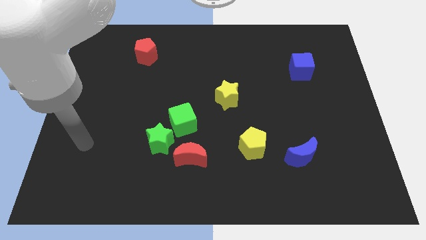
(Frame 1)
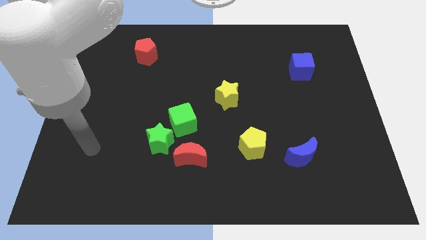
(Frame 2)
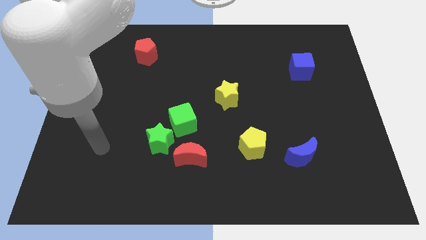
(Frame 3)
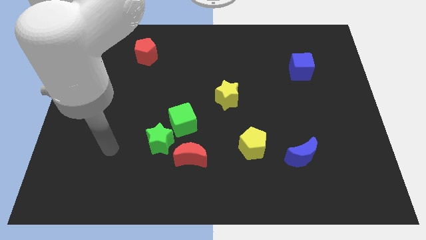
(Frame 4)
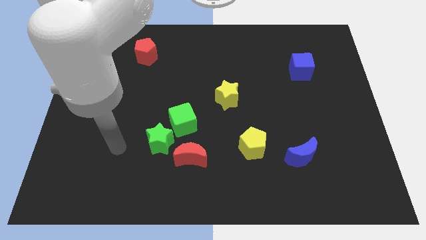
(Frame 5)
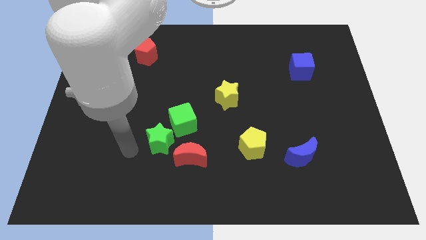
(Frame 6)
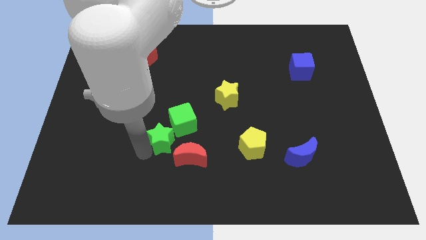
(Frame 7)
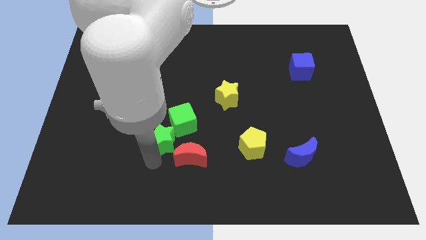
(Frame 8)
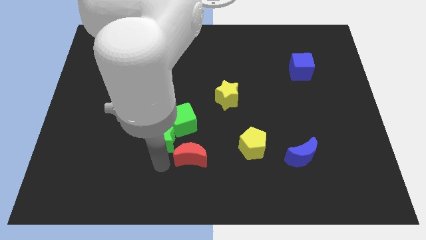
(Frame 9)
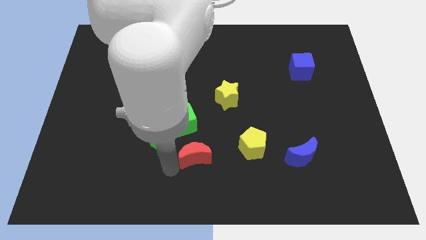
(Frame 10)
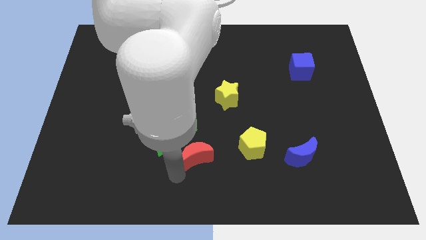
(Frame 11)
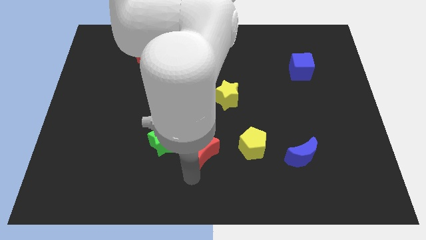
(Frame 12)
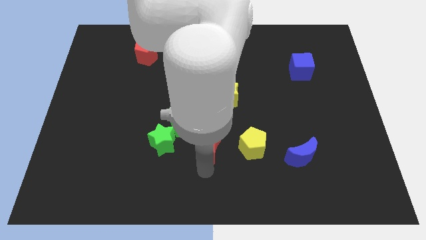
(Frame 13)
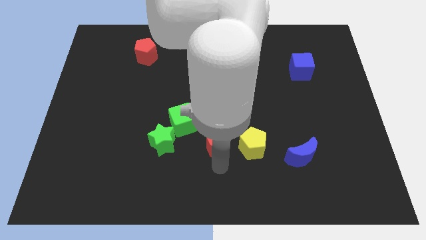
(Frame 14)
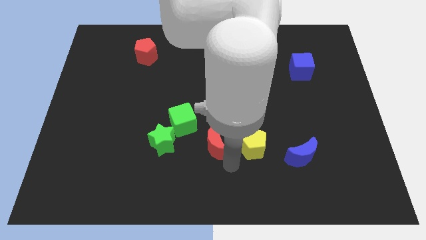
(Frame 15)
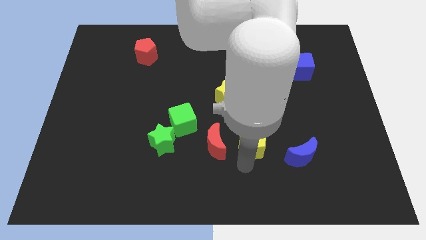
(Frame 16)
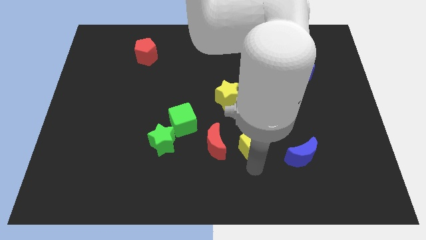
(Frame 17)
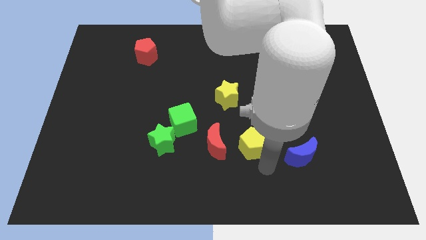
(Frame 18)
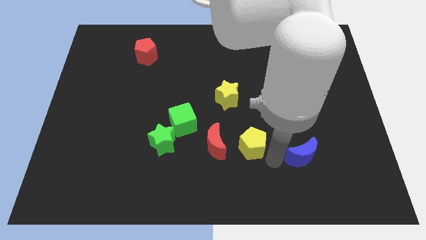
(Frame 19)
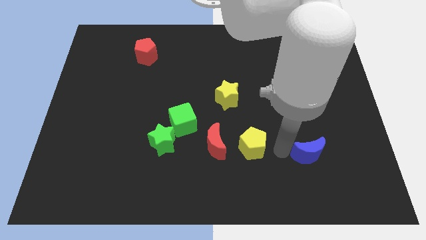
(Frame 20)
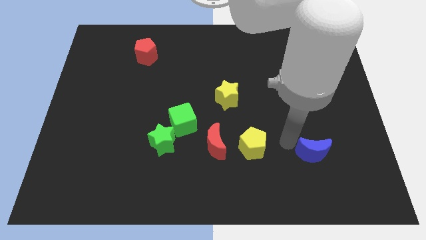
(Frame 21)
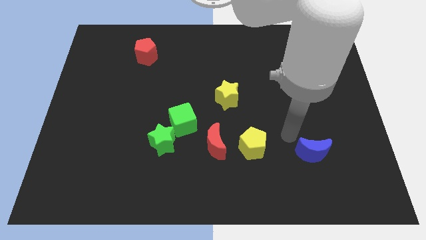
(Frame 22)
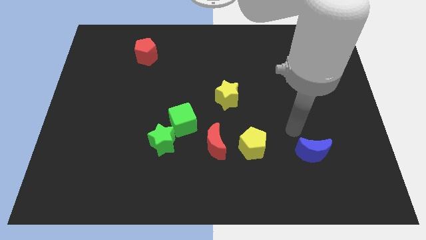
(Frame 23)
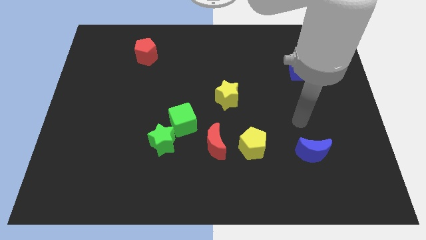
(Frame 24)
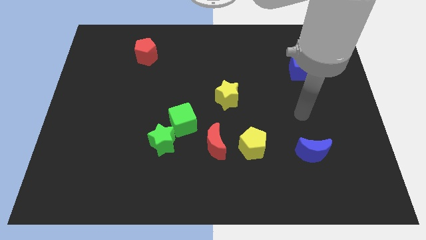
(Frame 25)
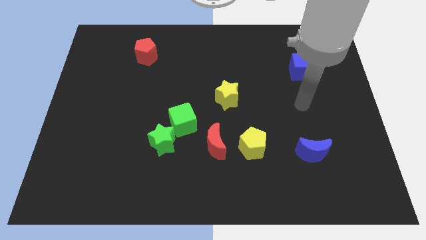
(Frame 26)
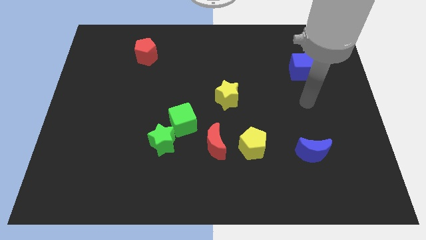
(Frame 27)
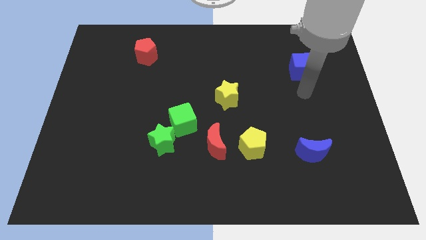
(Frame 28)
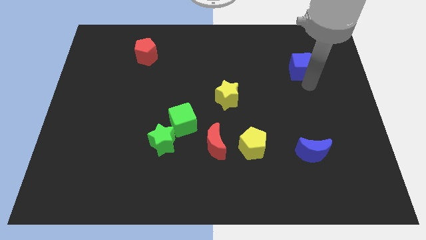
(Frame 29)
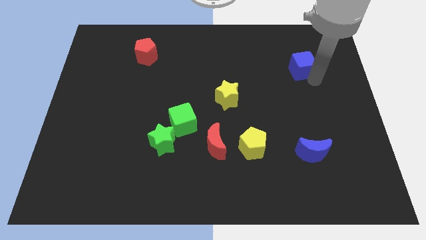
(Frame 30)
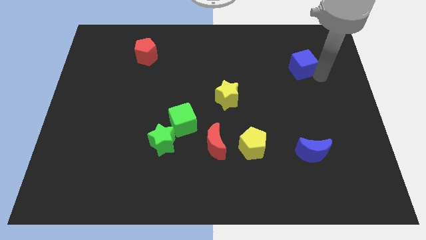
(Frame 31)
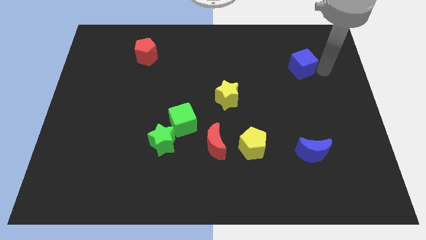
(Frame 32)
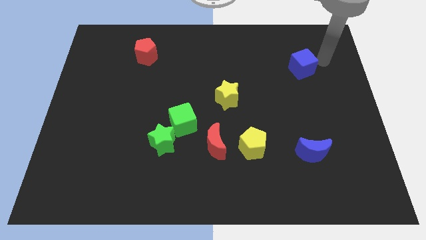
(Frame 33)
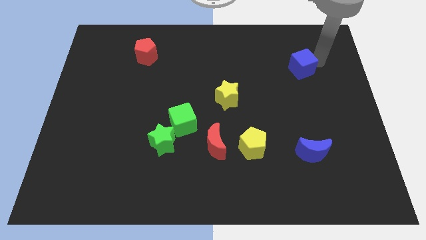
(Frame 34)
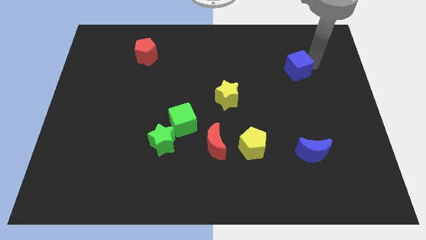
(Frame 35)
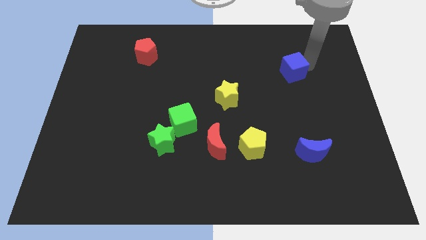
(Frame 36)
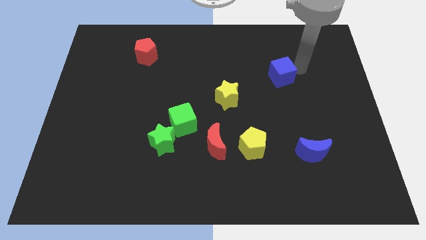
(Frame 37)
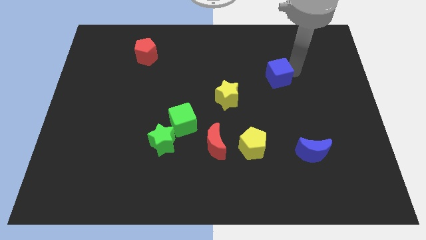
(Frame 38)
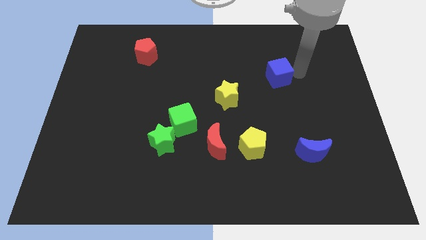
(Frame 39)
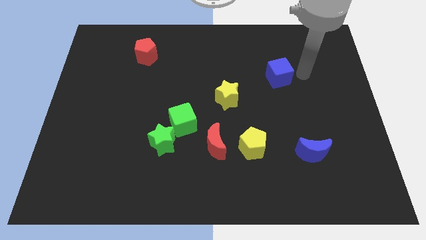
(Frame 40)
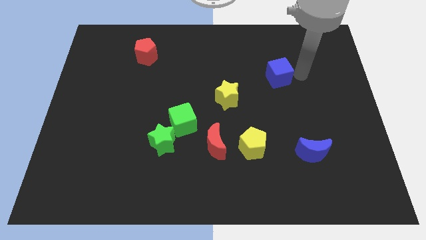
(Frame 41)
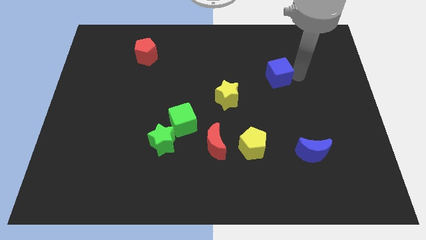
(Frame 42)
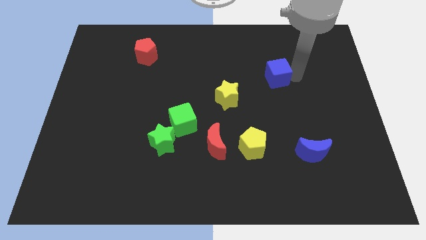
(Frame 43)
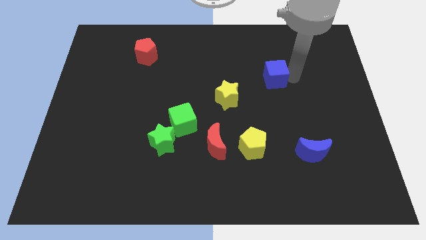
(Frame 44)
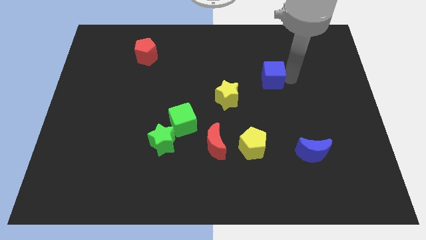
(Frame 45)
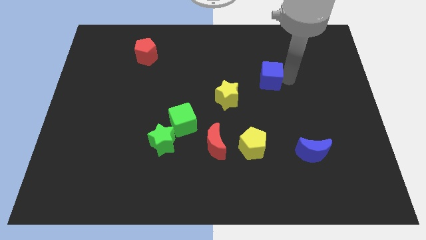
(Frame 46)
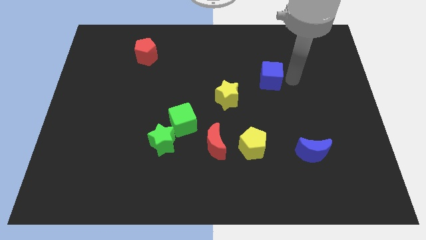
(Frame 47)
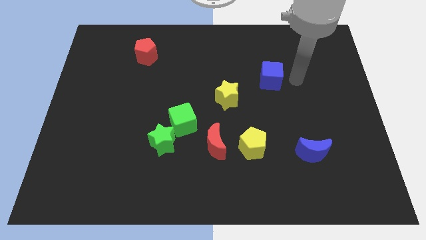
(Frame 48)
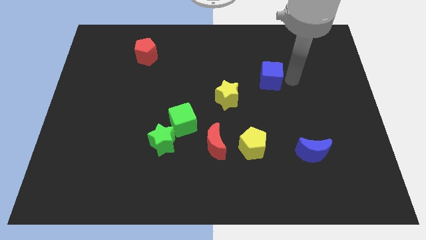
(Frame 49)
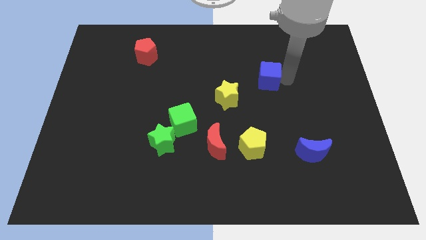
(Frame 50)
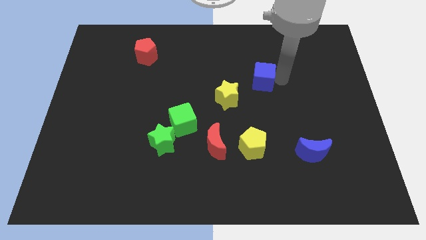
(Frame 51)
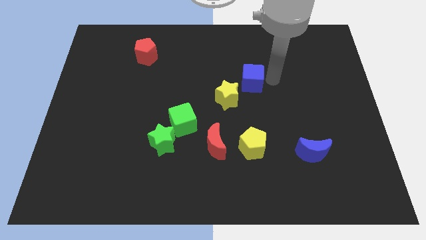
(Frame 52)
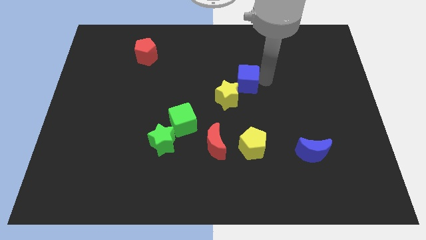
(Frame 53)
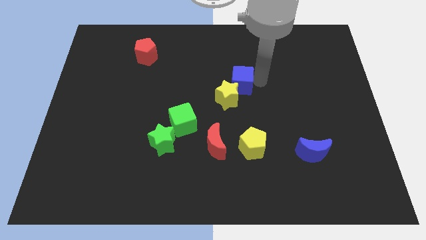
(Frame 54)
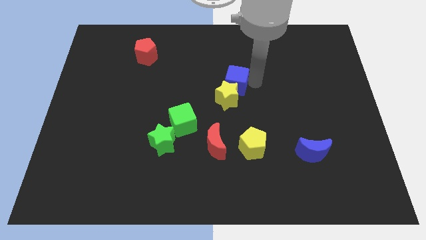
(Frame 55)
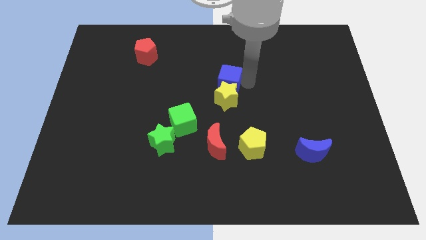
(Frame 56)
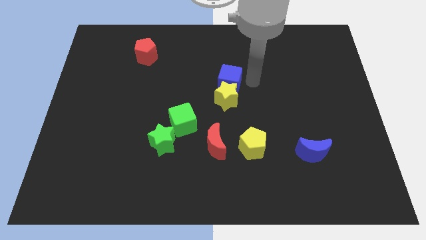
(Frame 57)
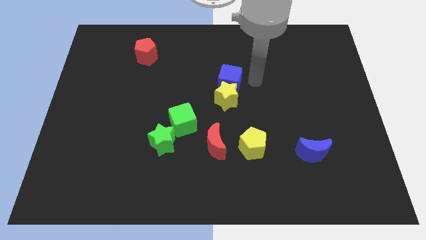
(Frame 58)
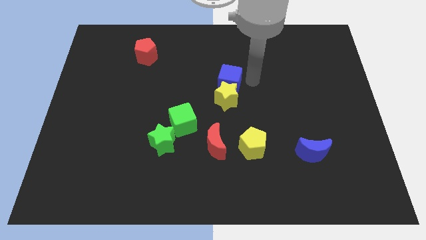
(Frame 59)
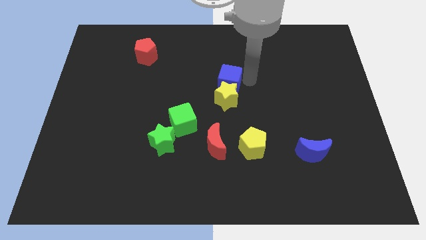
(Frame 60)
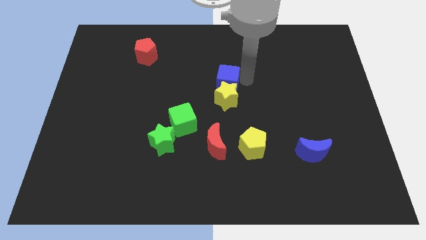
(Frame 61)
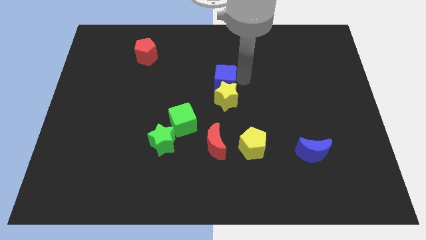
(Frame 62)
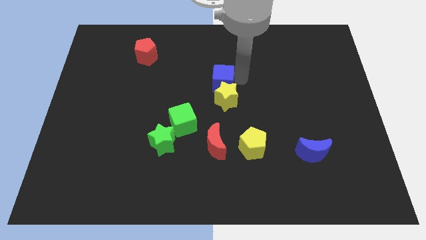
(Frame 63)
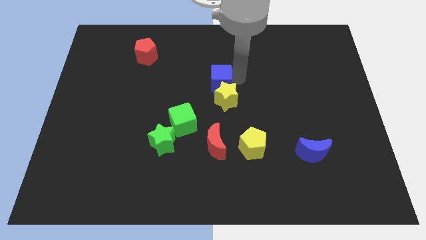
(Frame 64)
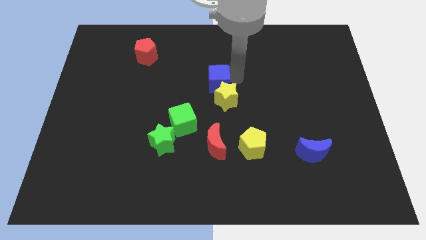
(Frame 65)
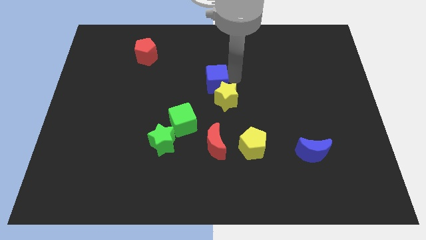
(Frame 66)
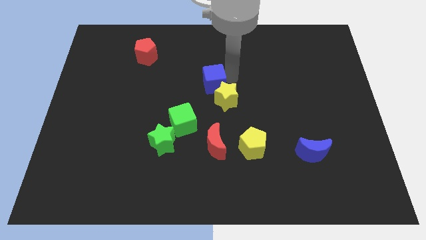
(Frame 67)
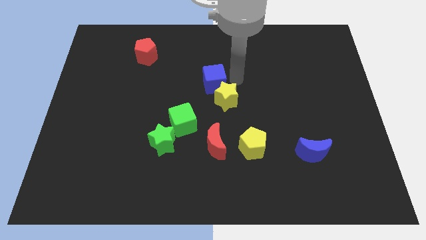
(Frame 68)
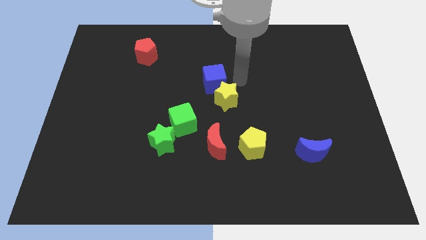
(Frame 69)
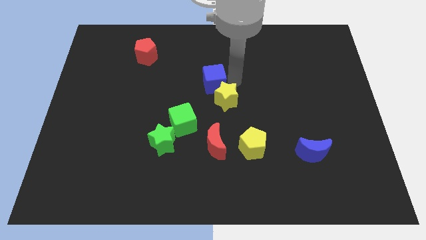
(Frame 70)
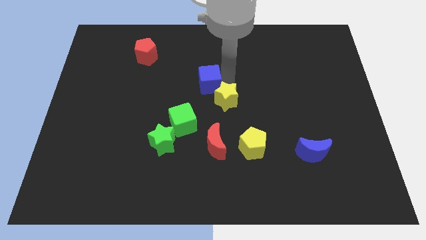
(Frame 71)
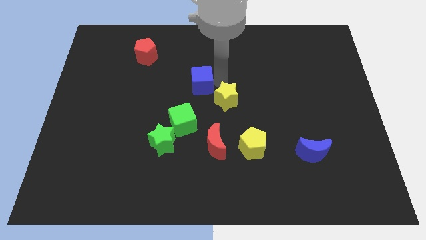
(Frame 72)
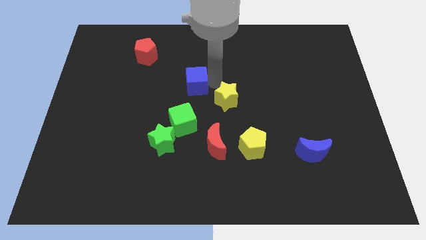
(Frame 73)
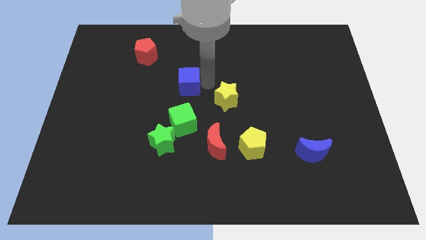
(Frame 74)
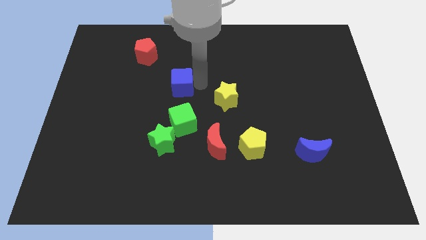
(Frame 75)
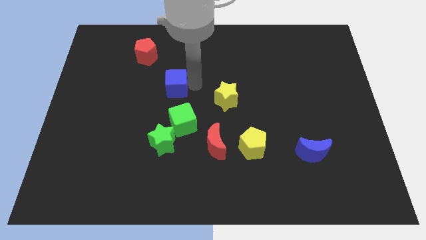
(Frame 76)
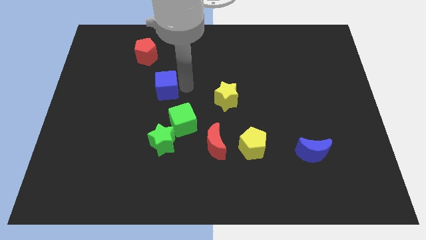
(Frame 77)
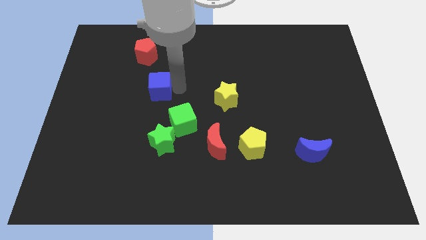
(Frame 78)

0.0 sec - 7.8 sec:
move the blue cube to the bottom of the red pentagon
